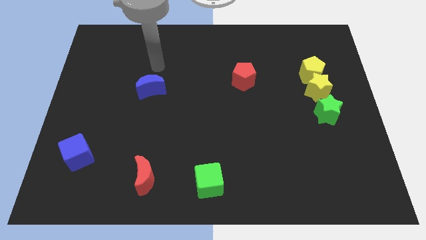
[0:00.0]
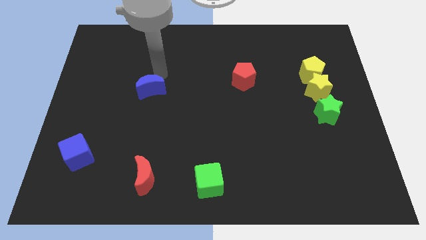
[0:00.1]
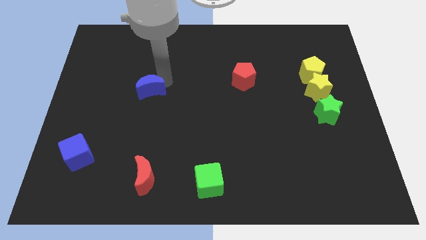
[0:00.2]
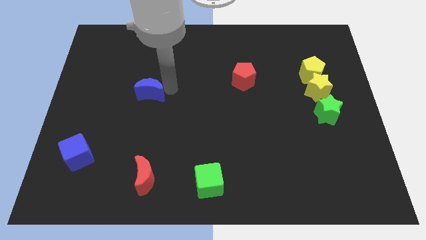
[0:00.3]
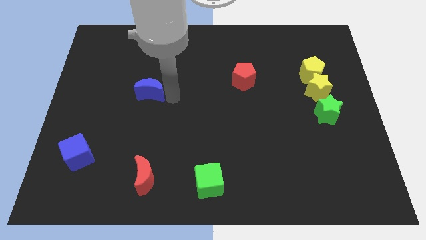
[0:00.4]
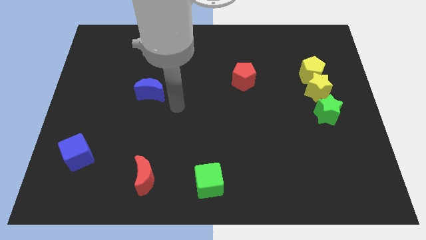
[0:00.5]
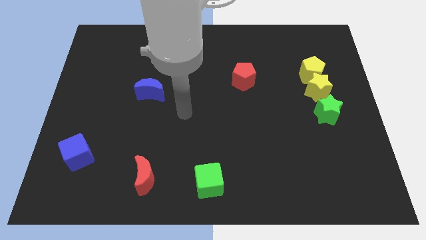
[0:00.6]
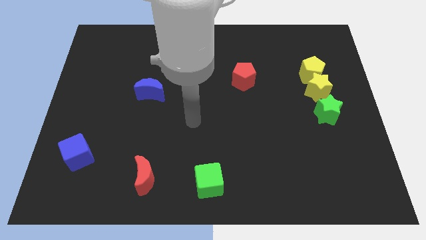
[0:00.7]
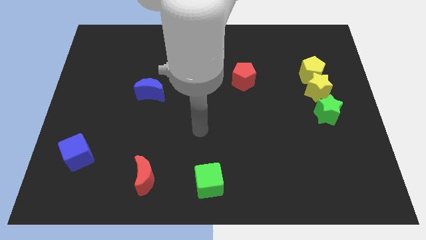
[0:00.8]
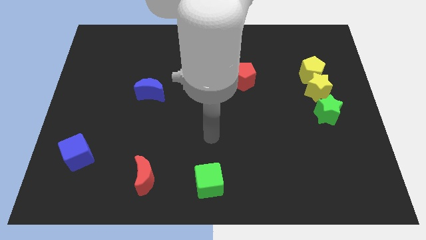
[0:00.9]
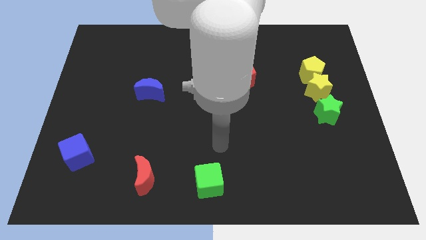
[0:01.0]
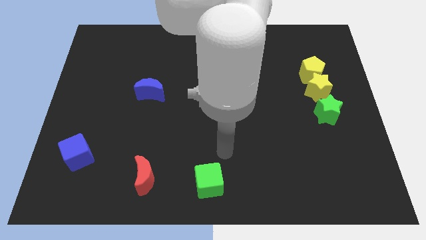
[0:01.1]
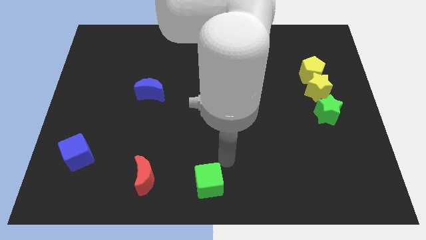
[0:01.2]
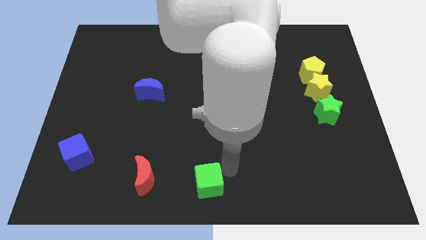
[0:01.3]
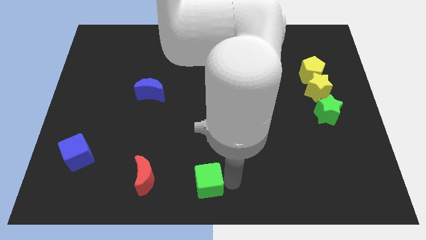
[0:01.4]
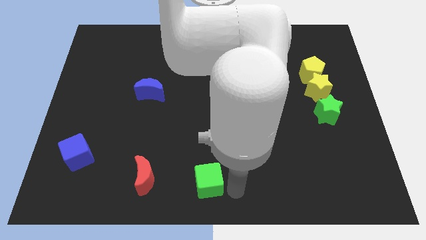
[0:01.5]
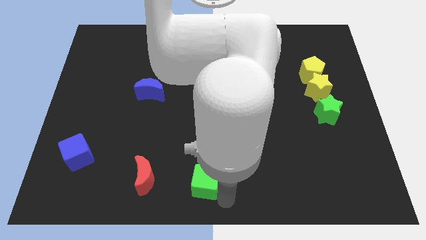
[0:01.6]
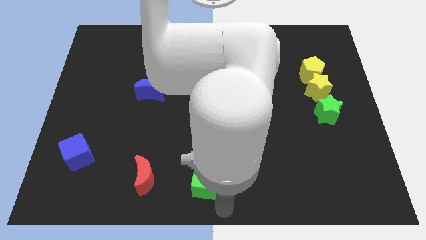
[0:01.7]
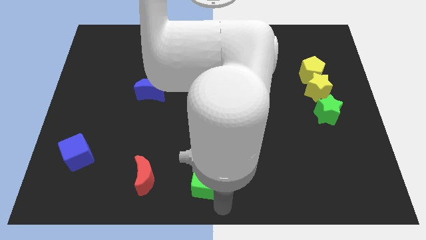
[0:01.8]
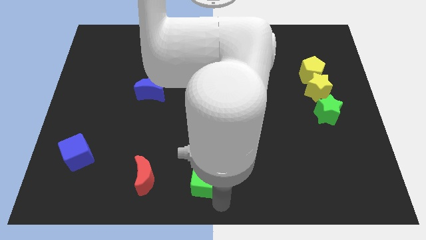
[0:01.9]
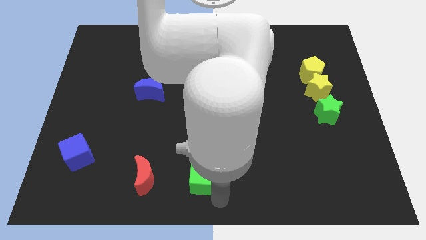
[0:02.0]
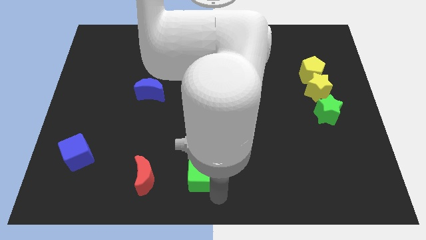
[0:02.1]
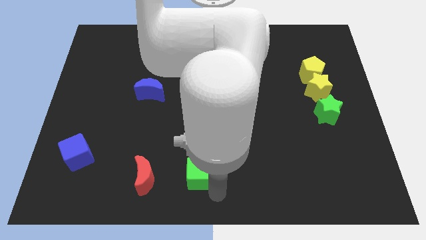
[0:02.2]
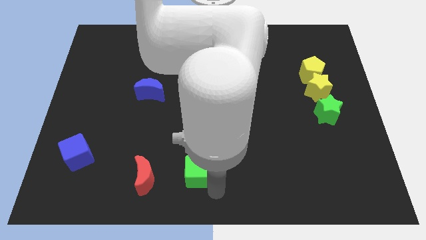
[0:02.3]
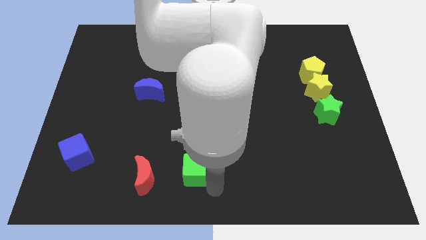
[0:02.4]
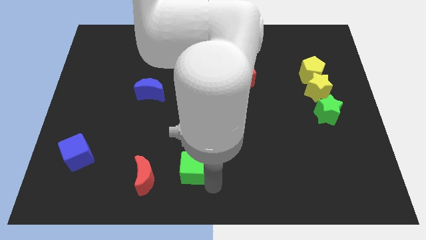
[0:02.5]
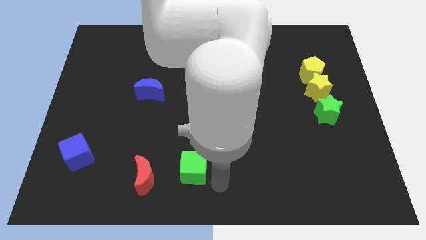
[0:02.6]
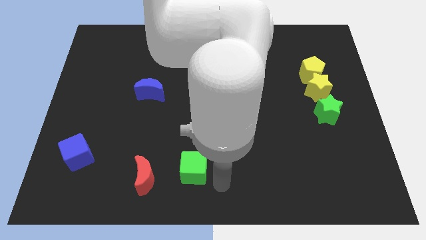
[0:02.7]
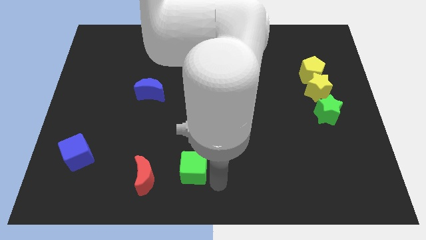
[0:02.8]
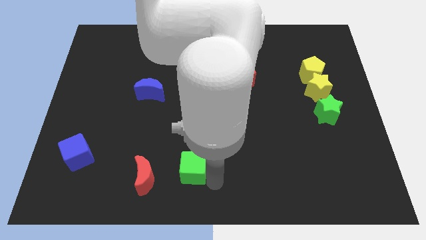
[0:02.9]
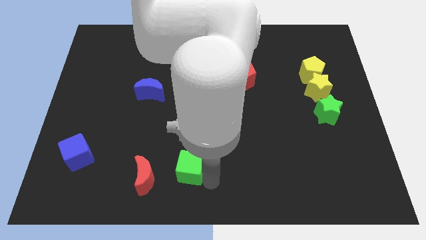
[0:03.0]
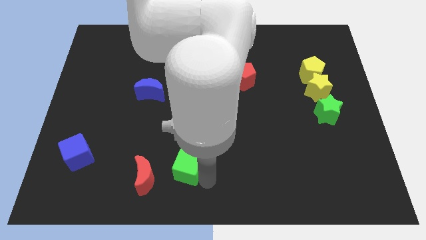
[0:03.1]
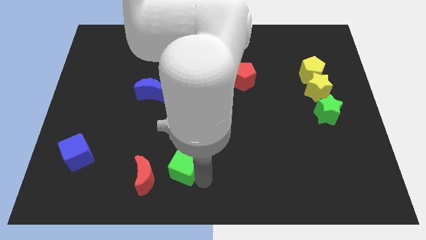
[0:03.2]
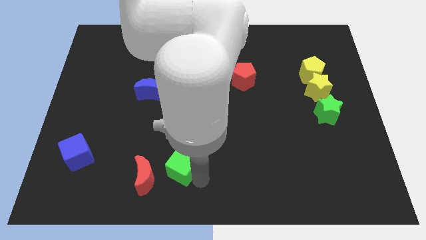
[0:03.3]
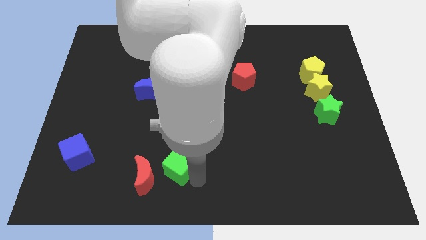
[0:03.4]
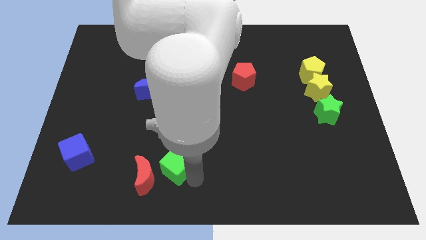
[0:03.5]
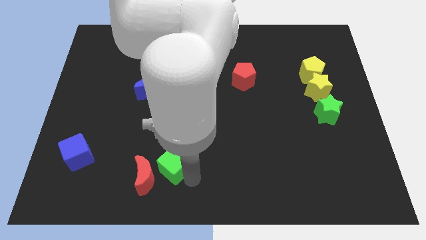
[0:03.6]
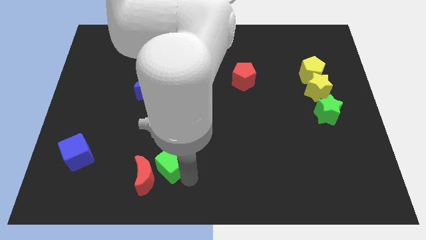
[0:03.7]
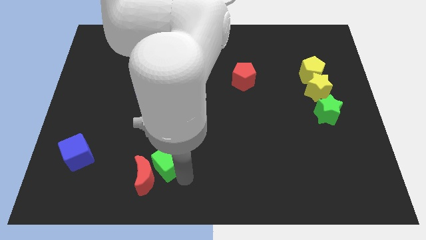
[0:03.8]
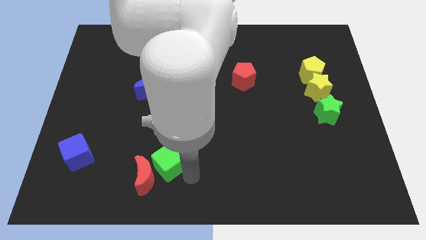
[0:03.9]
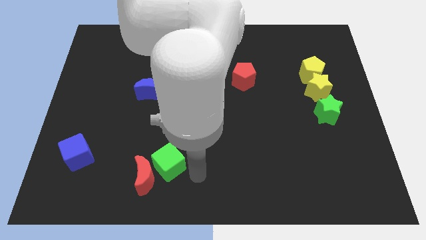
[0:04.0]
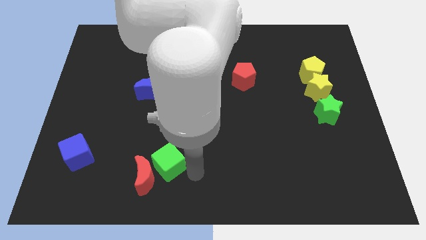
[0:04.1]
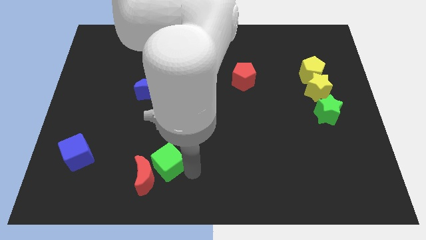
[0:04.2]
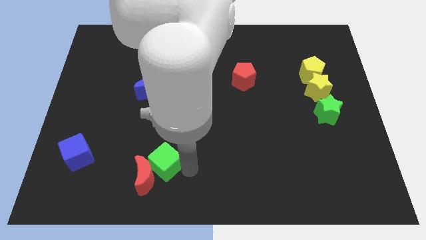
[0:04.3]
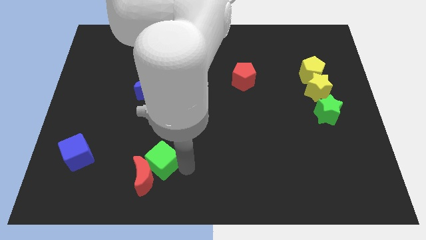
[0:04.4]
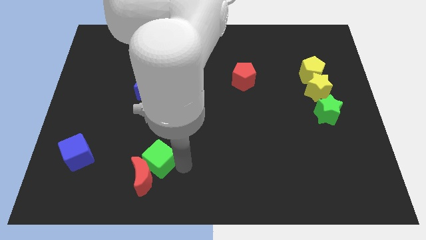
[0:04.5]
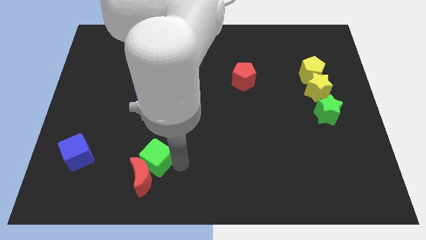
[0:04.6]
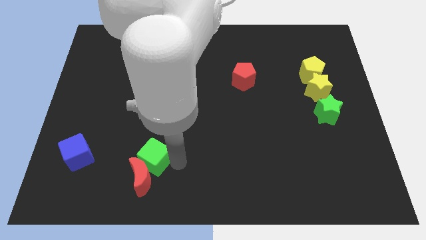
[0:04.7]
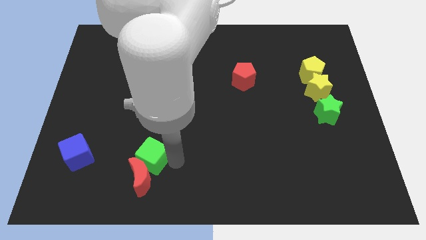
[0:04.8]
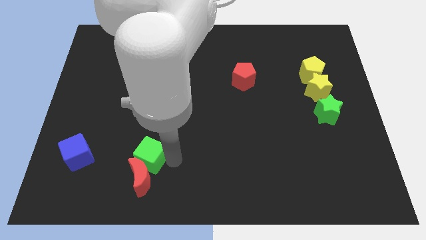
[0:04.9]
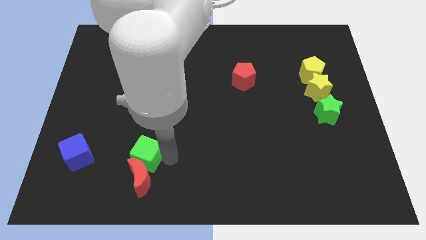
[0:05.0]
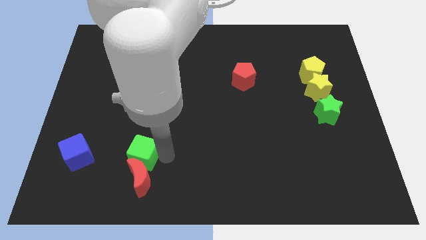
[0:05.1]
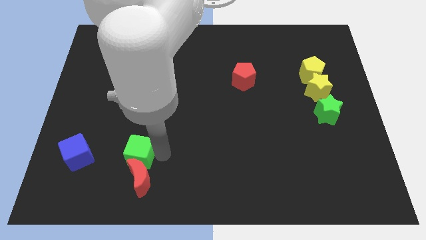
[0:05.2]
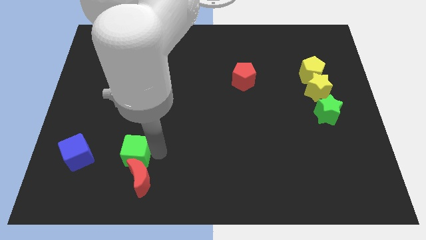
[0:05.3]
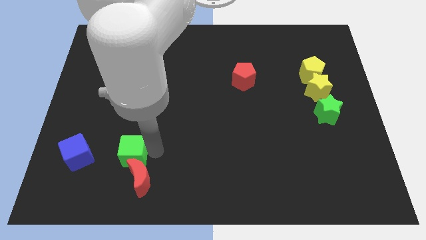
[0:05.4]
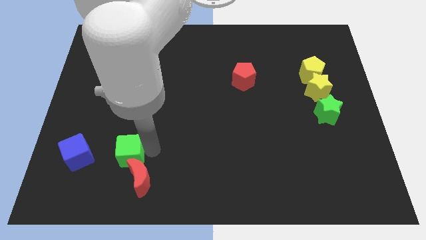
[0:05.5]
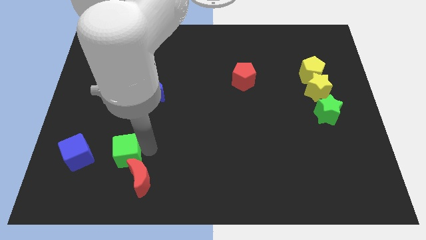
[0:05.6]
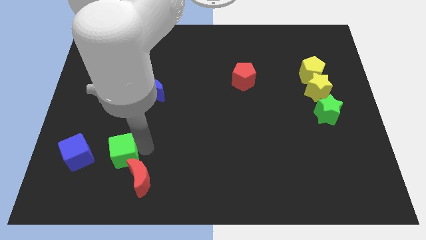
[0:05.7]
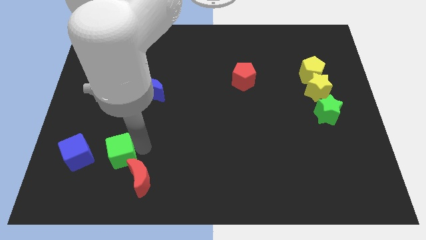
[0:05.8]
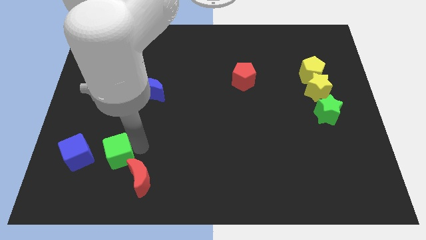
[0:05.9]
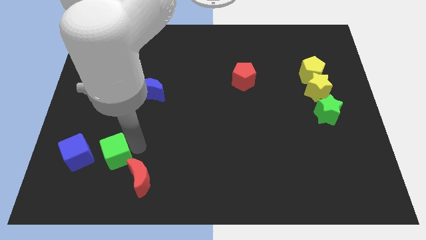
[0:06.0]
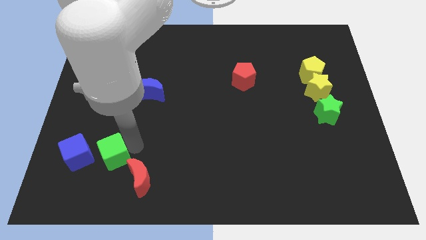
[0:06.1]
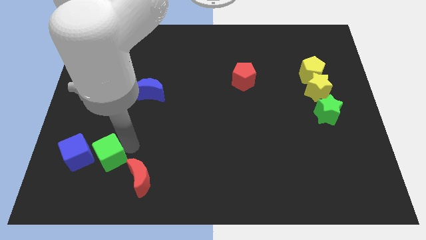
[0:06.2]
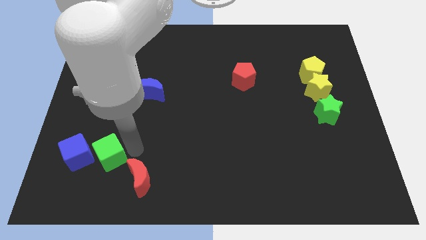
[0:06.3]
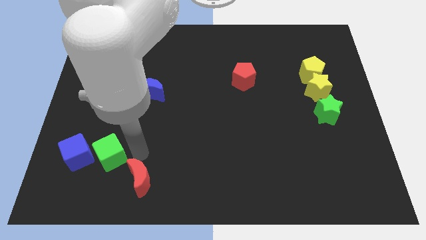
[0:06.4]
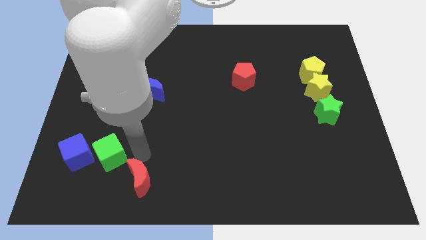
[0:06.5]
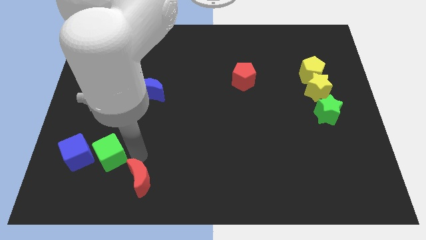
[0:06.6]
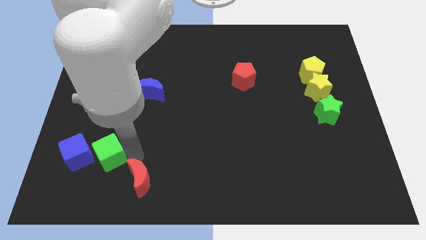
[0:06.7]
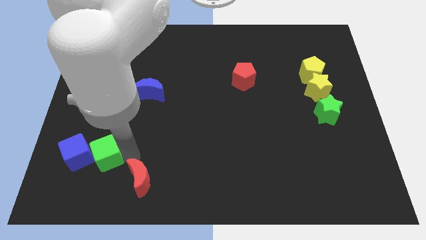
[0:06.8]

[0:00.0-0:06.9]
put the green cube to the blue cube

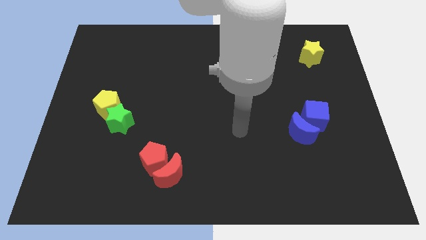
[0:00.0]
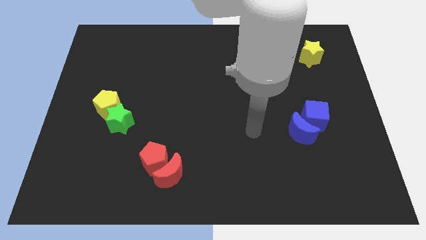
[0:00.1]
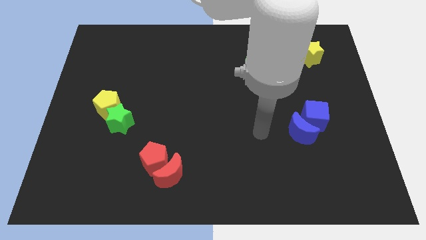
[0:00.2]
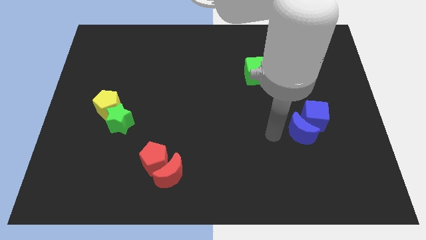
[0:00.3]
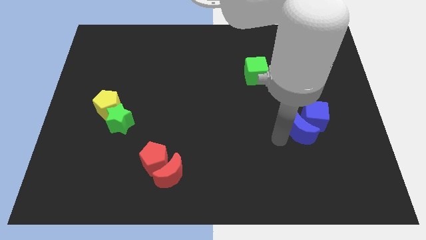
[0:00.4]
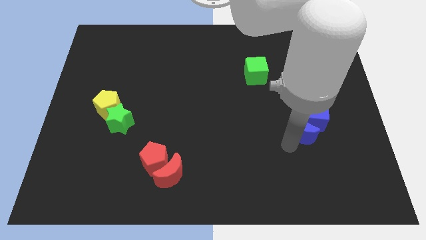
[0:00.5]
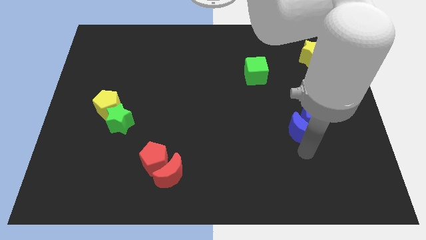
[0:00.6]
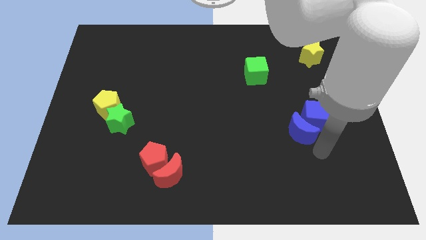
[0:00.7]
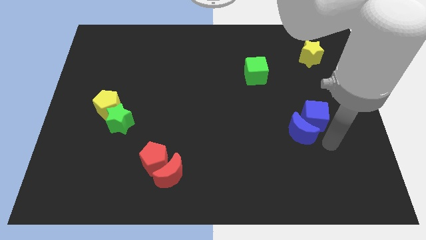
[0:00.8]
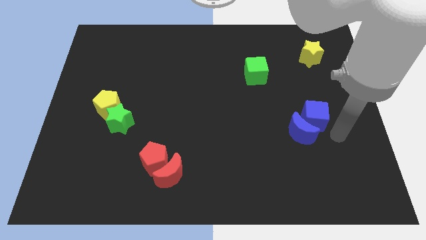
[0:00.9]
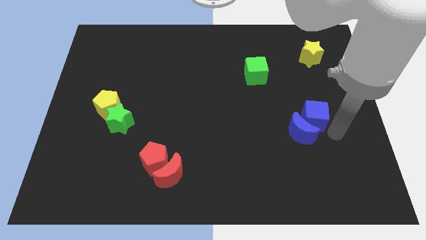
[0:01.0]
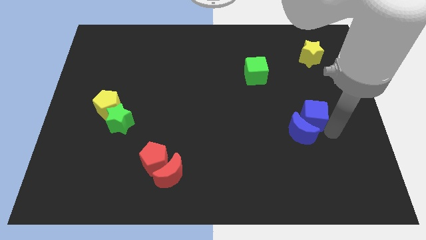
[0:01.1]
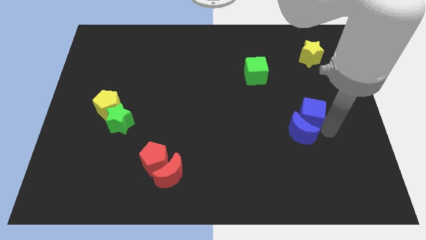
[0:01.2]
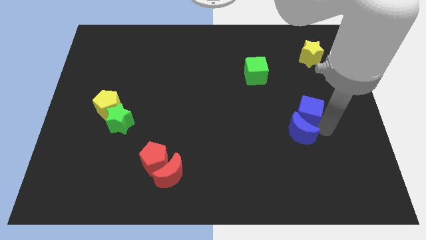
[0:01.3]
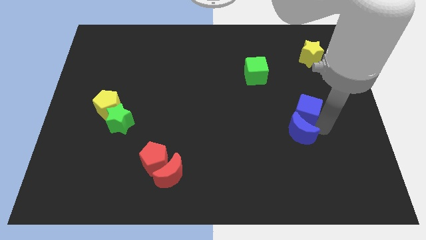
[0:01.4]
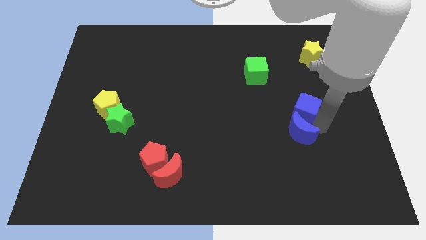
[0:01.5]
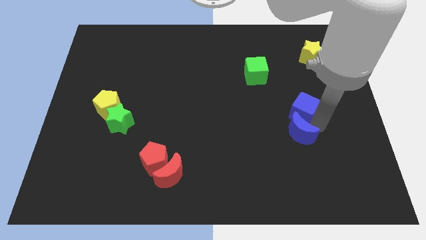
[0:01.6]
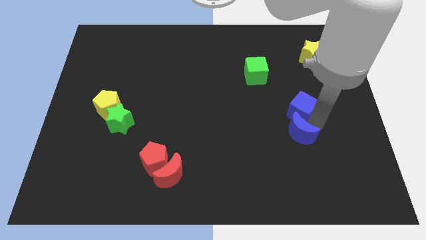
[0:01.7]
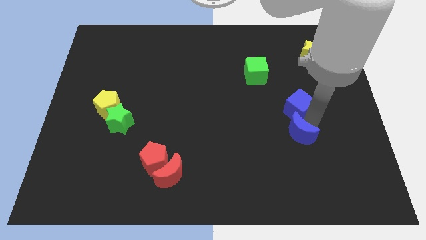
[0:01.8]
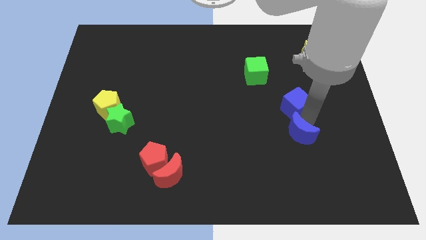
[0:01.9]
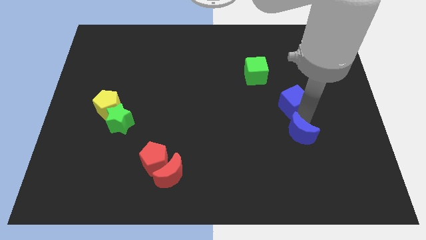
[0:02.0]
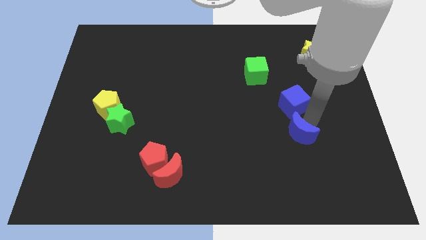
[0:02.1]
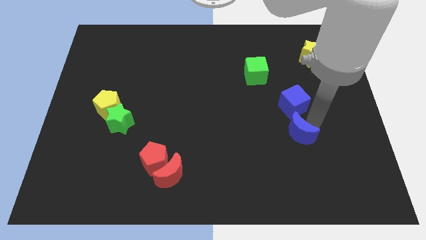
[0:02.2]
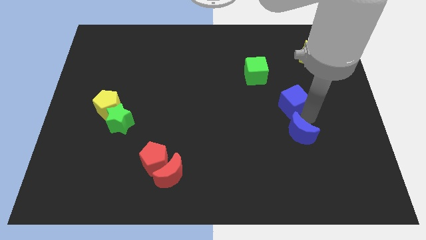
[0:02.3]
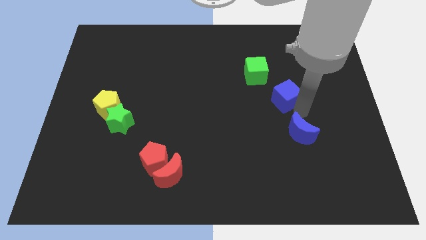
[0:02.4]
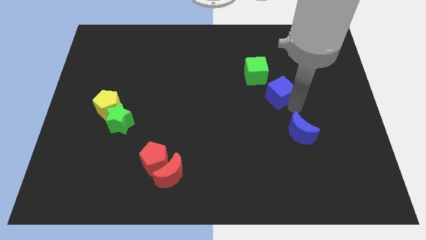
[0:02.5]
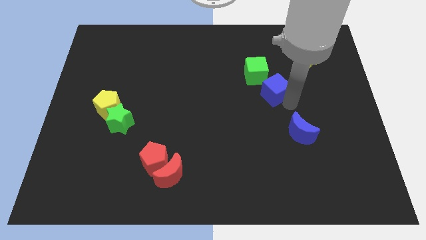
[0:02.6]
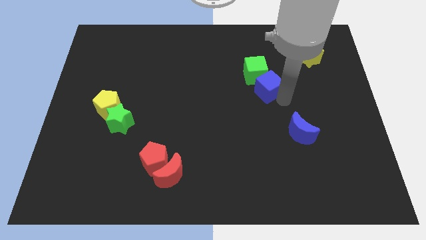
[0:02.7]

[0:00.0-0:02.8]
push the blue cube towards the green cube
